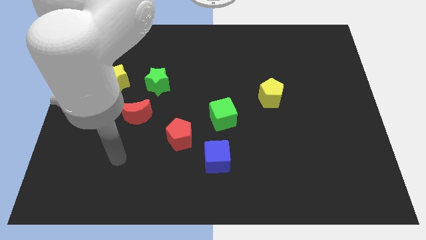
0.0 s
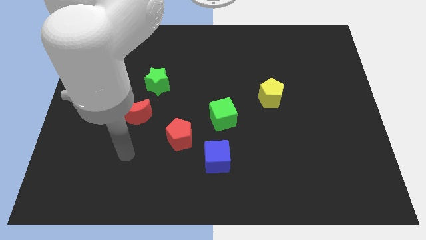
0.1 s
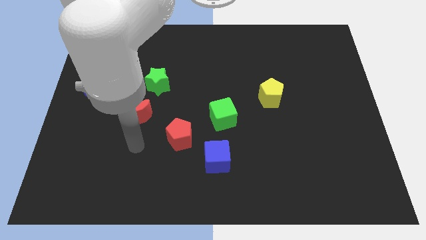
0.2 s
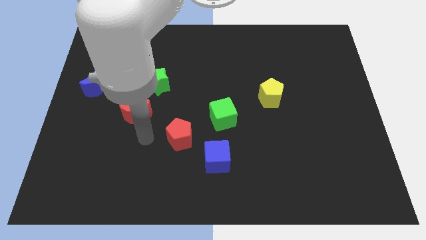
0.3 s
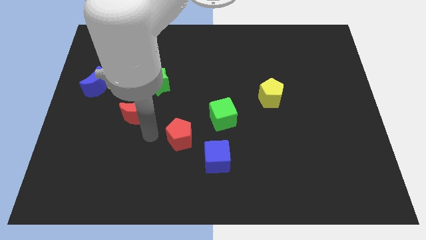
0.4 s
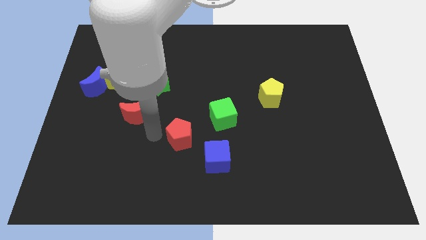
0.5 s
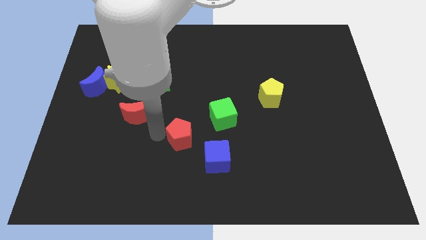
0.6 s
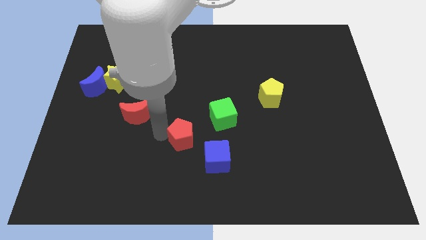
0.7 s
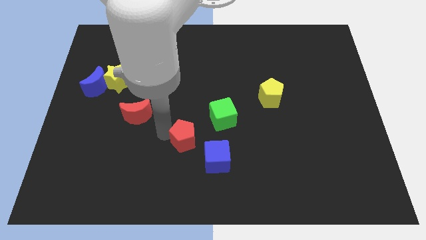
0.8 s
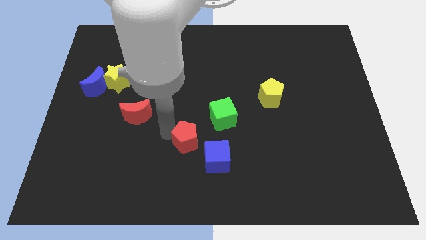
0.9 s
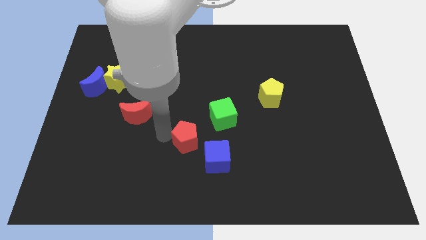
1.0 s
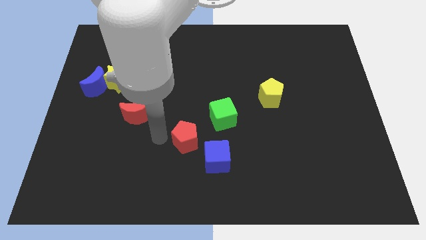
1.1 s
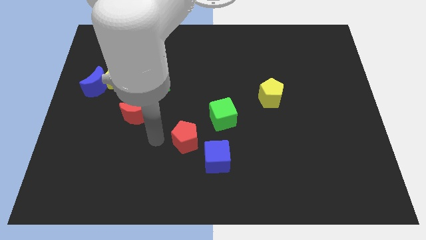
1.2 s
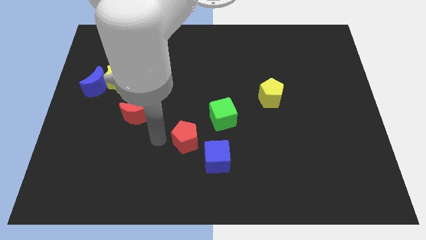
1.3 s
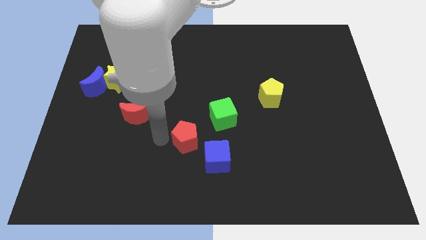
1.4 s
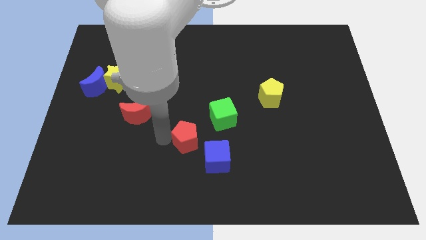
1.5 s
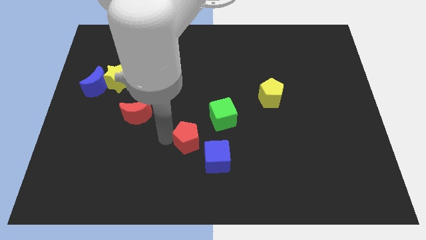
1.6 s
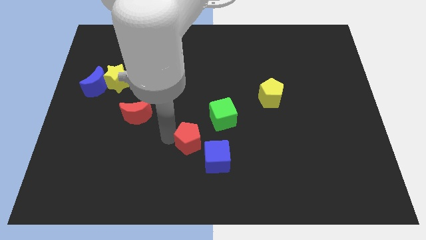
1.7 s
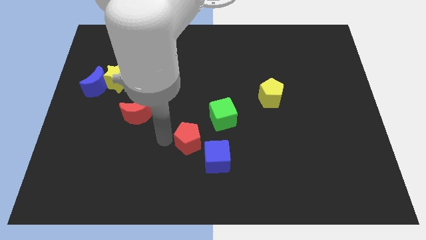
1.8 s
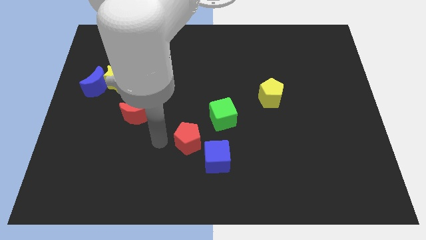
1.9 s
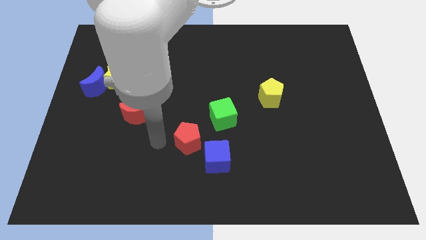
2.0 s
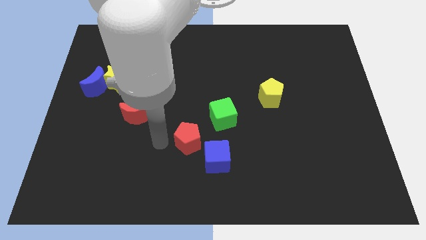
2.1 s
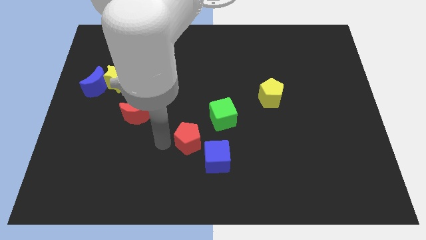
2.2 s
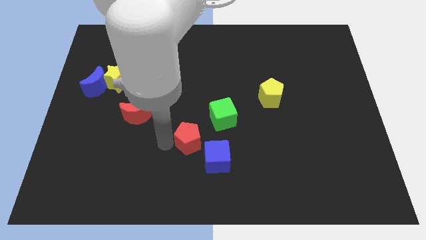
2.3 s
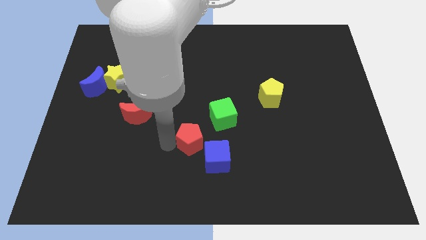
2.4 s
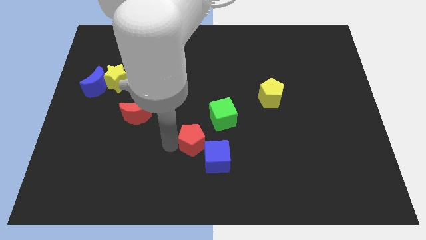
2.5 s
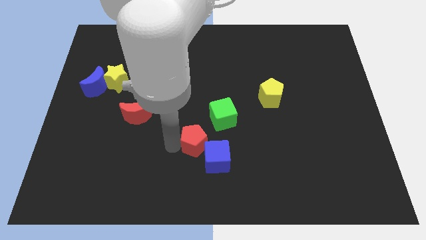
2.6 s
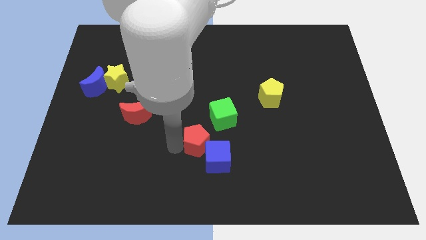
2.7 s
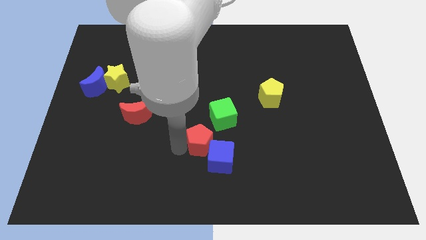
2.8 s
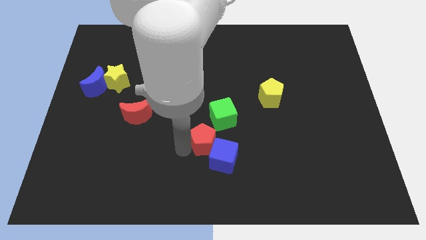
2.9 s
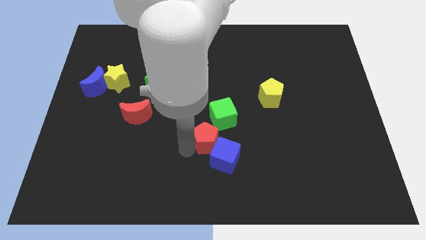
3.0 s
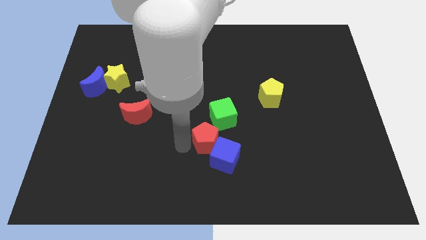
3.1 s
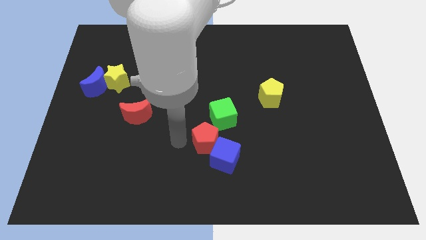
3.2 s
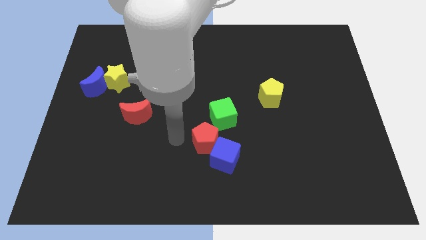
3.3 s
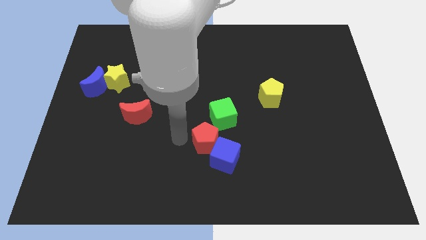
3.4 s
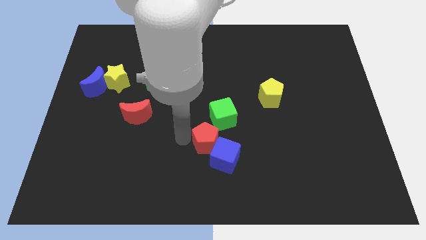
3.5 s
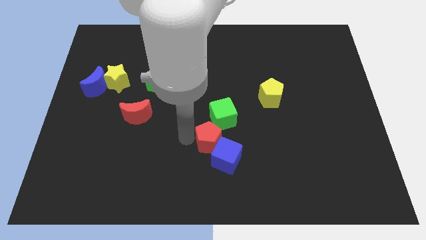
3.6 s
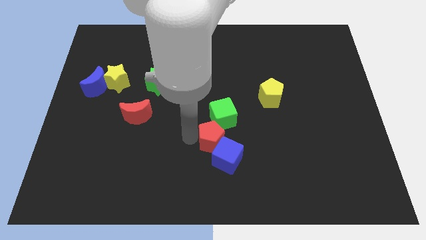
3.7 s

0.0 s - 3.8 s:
move the red pentagon to the right slightly

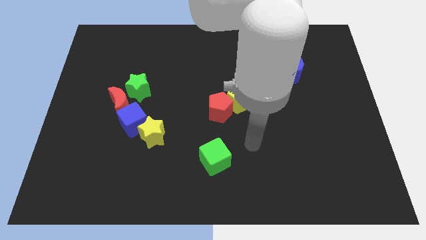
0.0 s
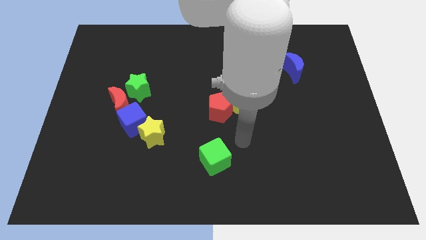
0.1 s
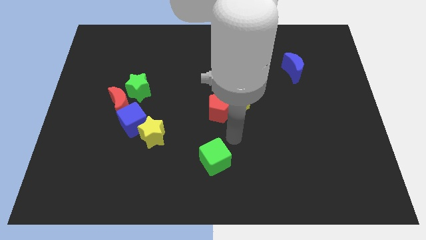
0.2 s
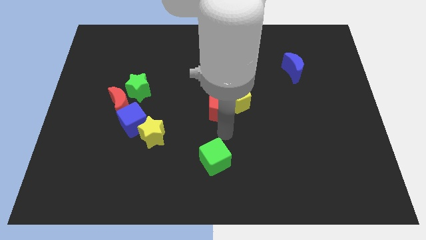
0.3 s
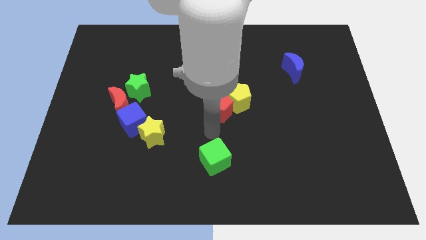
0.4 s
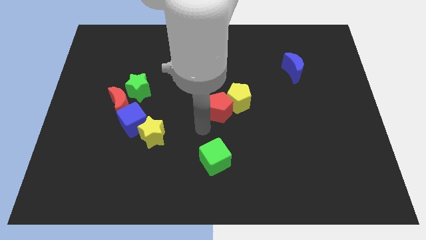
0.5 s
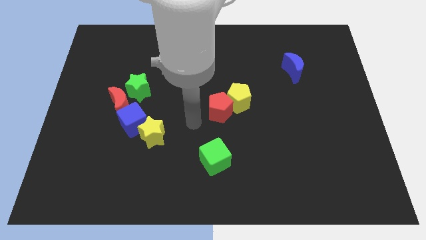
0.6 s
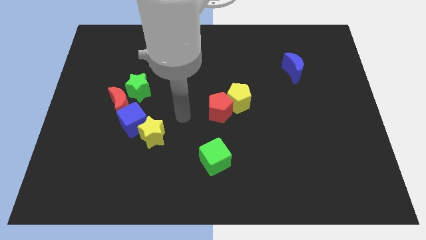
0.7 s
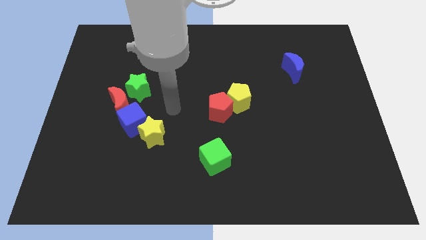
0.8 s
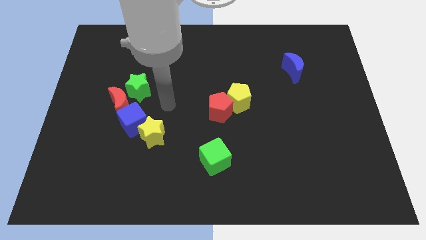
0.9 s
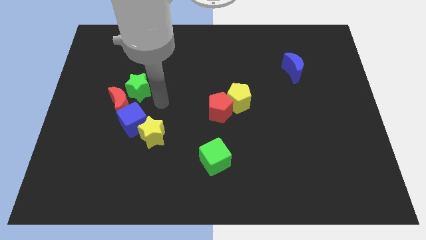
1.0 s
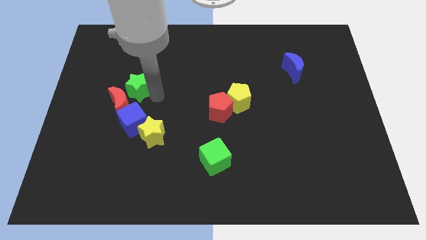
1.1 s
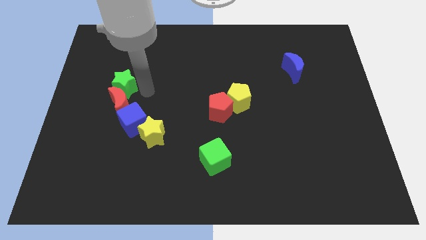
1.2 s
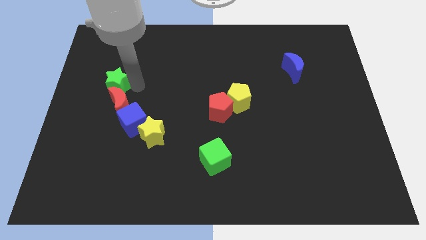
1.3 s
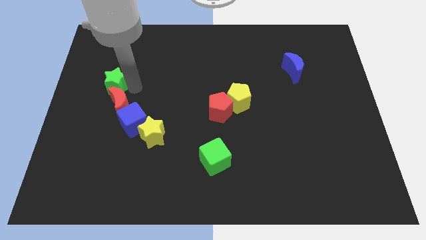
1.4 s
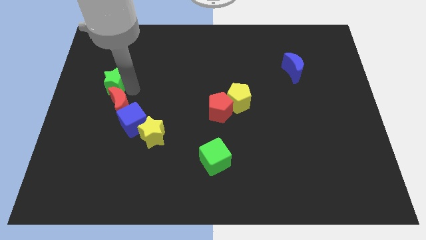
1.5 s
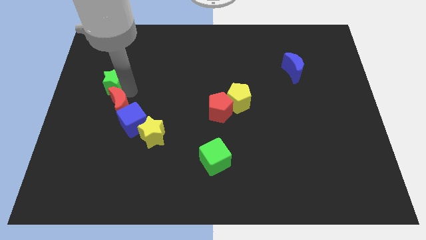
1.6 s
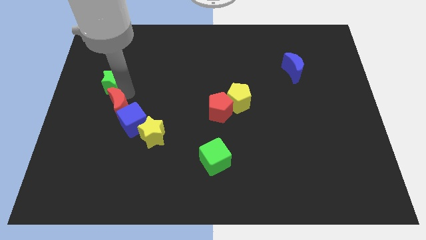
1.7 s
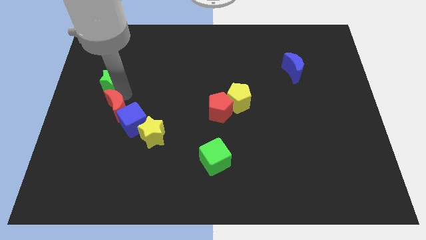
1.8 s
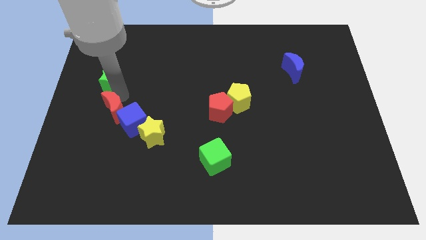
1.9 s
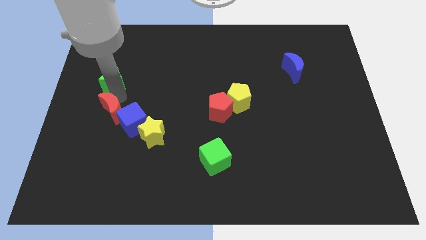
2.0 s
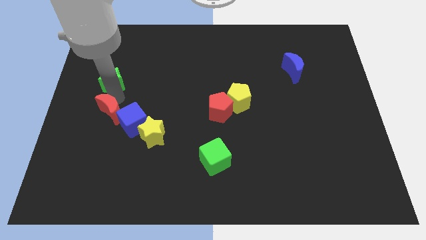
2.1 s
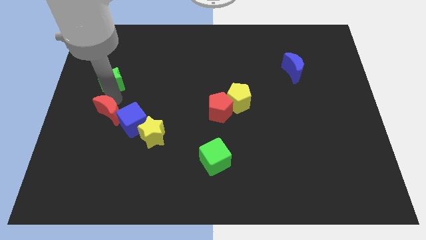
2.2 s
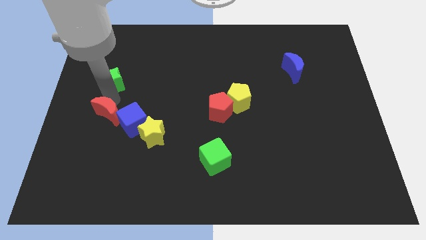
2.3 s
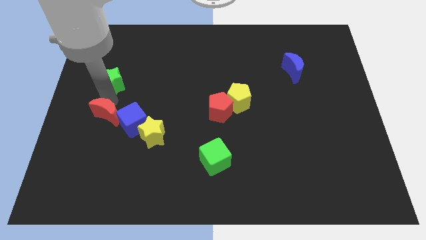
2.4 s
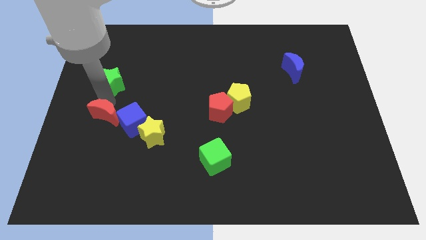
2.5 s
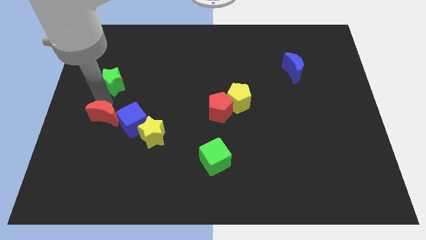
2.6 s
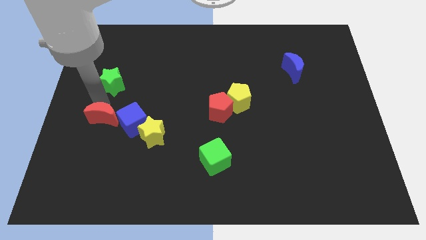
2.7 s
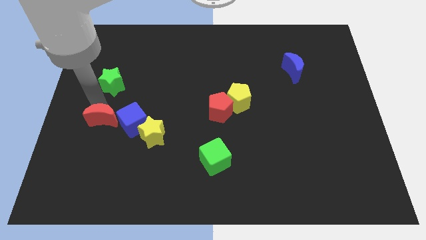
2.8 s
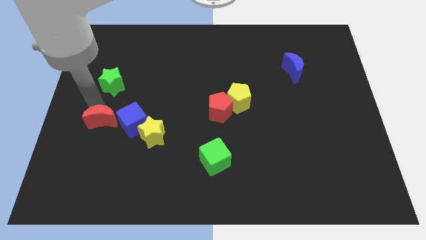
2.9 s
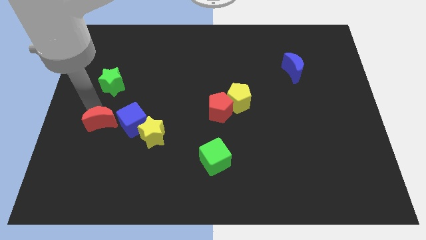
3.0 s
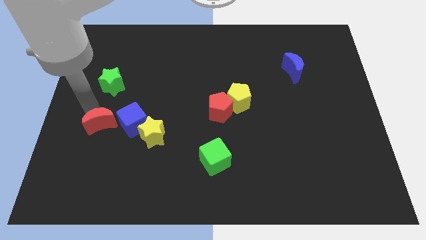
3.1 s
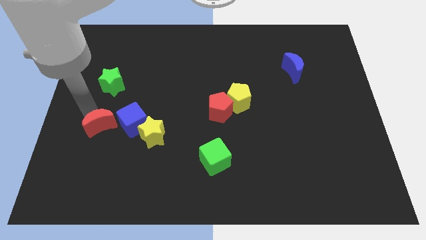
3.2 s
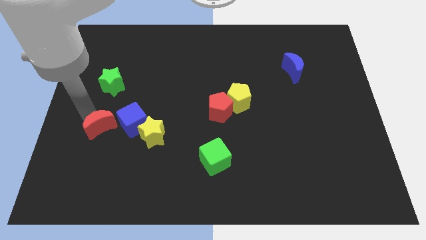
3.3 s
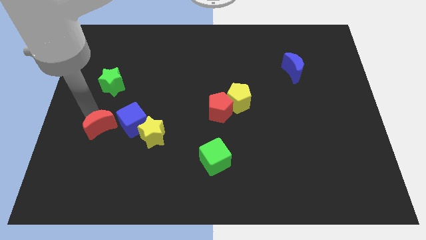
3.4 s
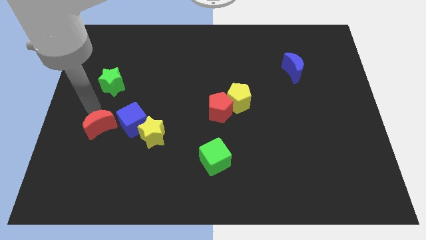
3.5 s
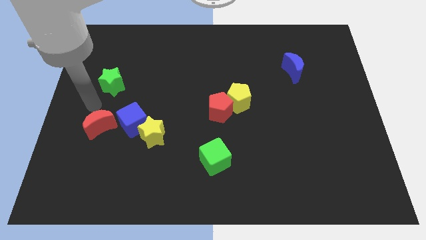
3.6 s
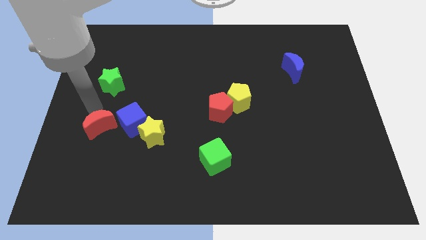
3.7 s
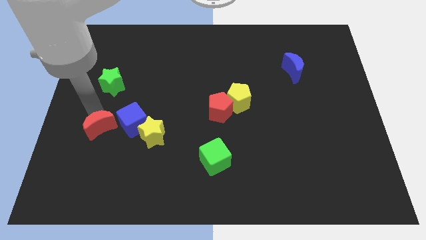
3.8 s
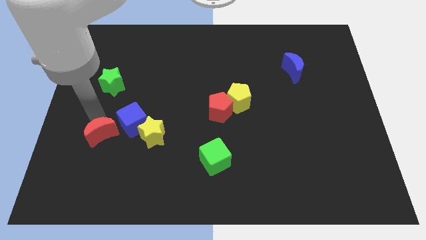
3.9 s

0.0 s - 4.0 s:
slide the red moon slightly down

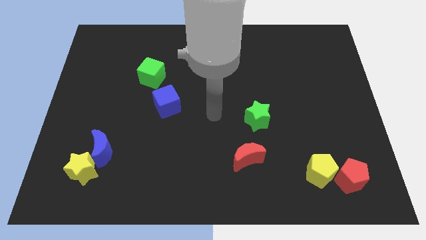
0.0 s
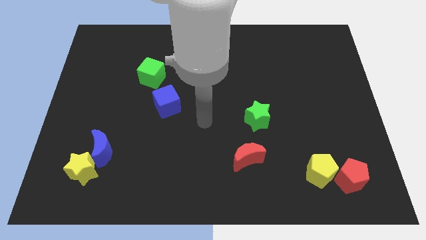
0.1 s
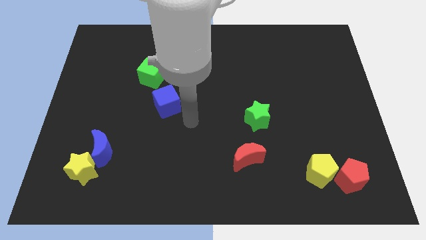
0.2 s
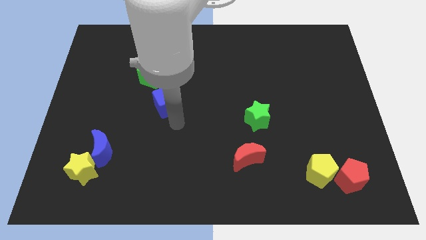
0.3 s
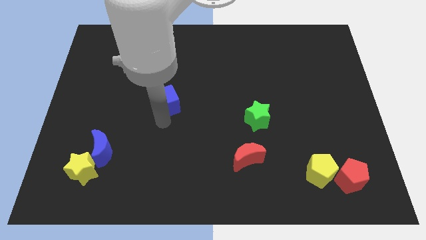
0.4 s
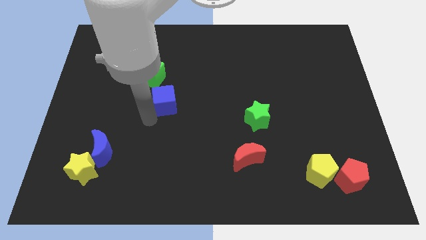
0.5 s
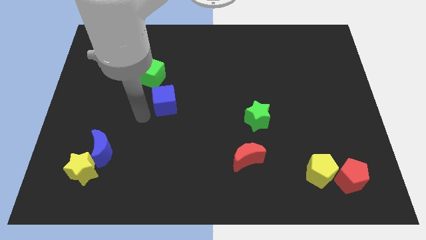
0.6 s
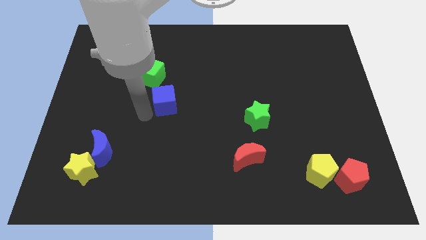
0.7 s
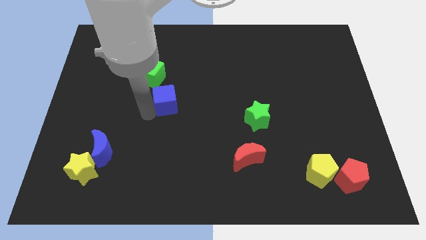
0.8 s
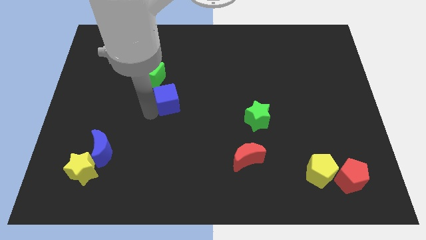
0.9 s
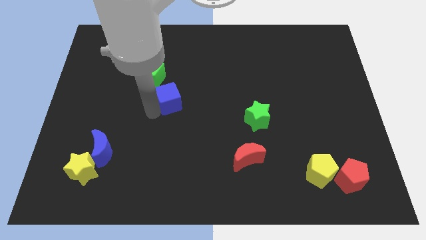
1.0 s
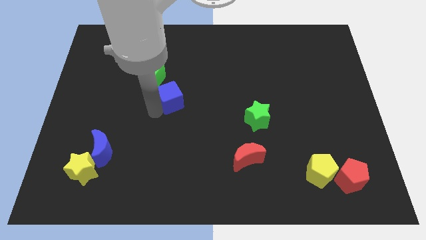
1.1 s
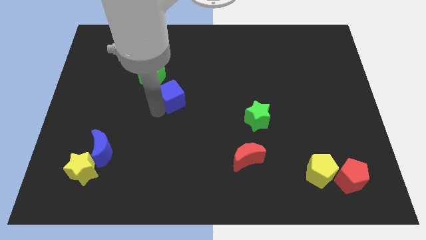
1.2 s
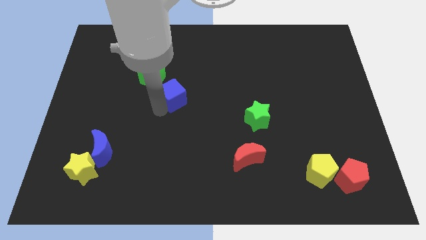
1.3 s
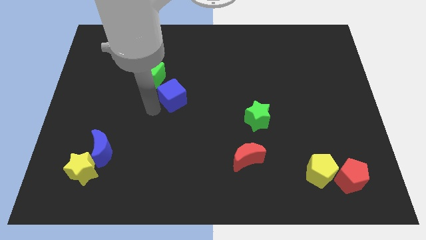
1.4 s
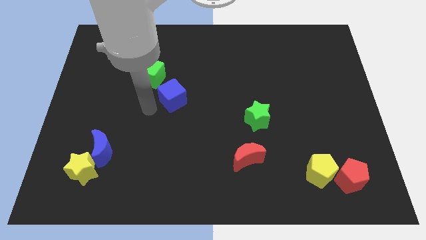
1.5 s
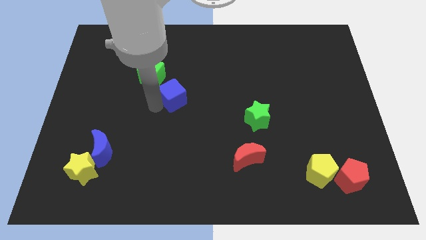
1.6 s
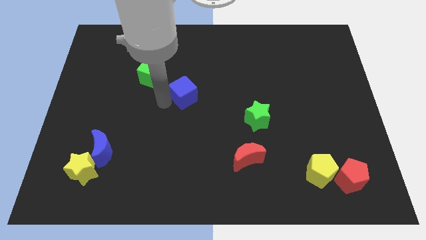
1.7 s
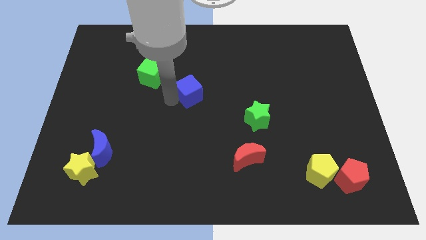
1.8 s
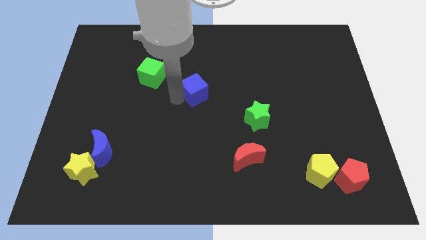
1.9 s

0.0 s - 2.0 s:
move the blue cube up and right a little bit
